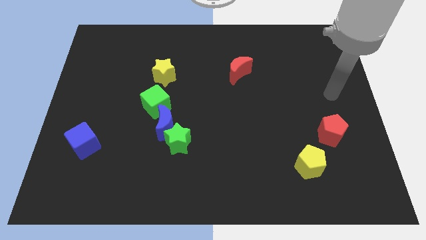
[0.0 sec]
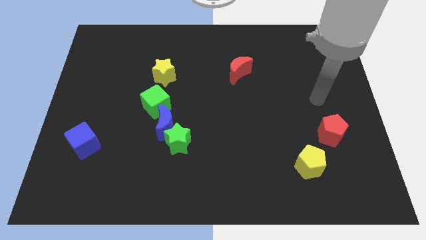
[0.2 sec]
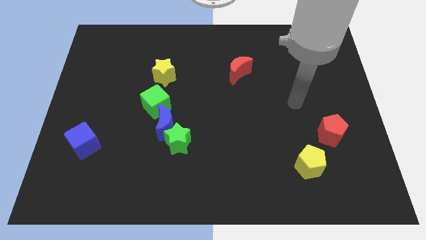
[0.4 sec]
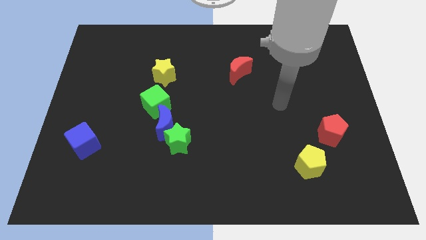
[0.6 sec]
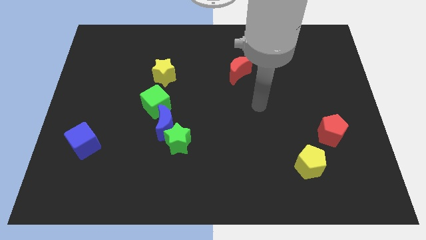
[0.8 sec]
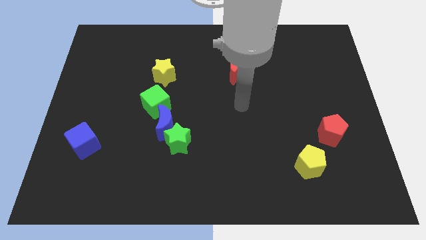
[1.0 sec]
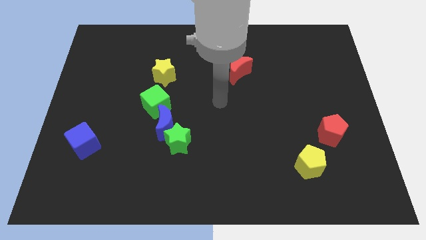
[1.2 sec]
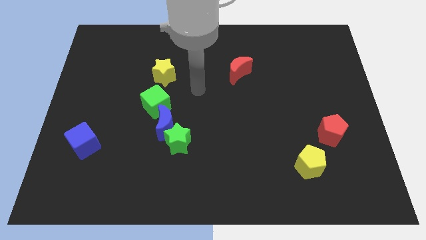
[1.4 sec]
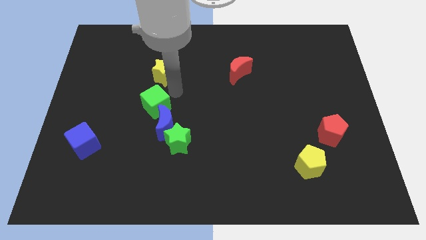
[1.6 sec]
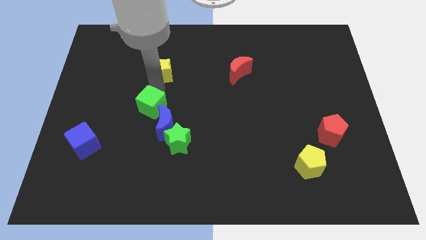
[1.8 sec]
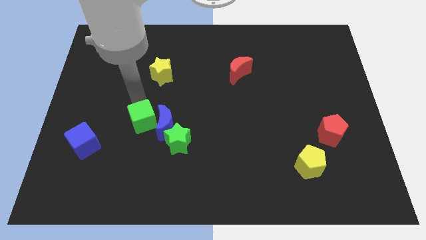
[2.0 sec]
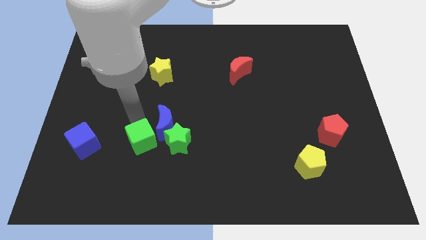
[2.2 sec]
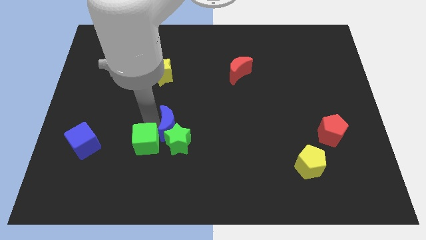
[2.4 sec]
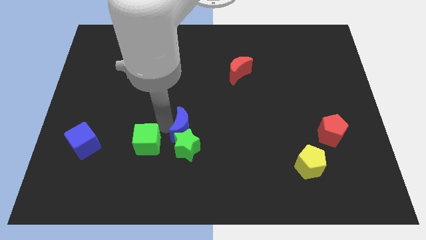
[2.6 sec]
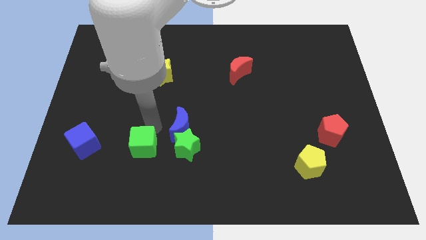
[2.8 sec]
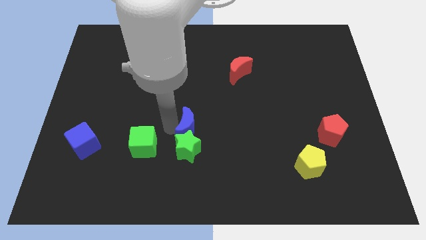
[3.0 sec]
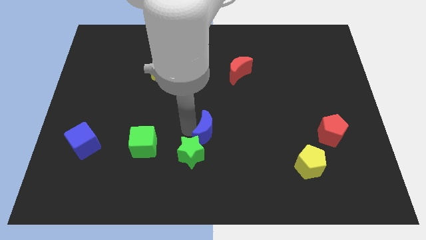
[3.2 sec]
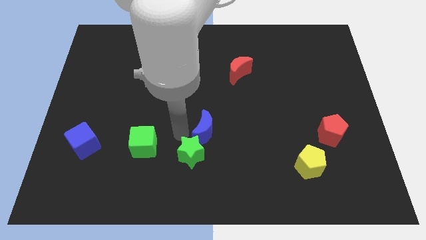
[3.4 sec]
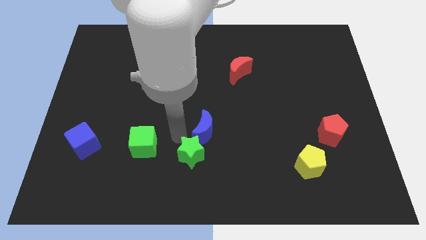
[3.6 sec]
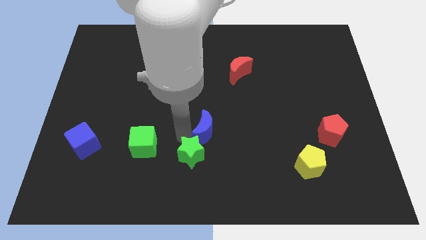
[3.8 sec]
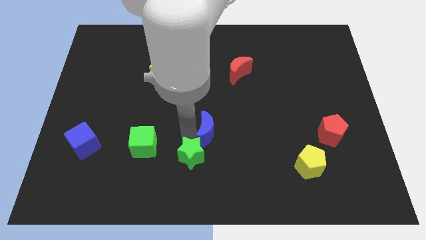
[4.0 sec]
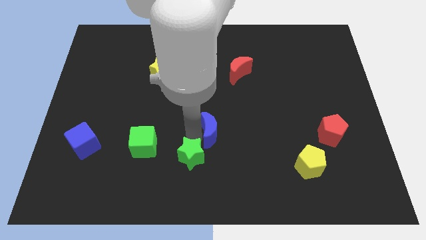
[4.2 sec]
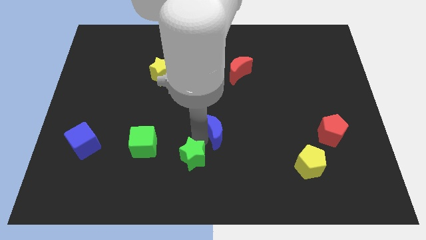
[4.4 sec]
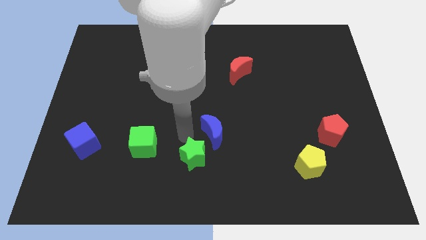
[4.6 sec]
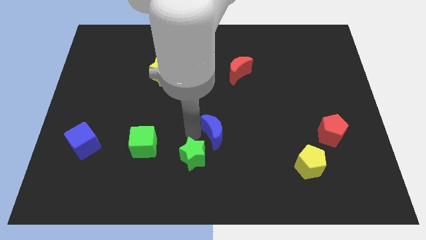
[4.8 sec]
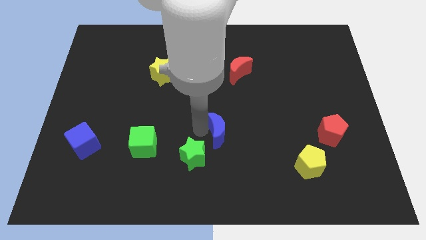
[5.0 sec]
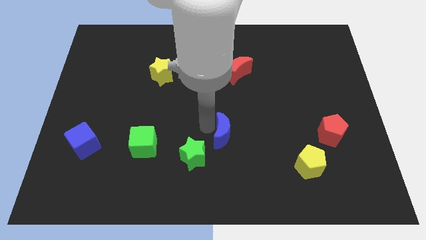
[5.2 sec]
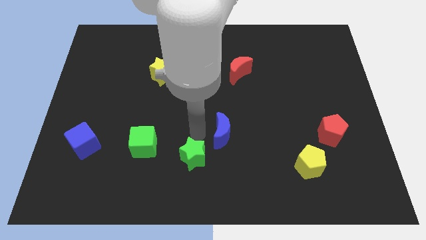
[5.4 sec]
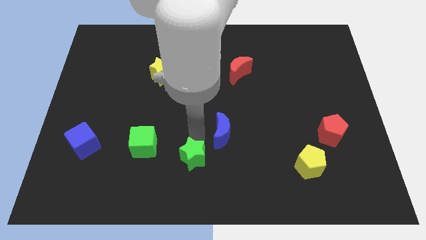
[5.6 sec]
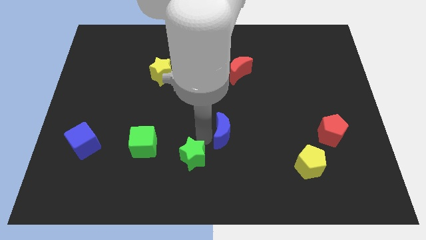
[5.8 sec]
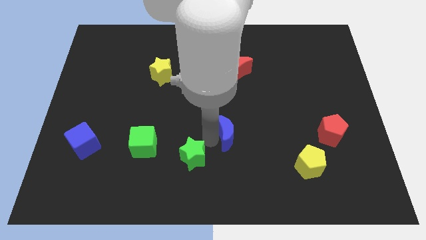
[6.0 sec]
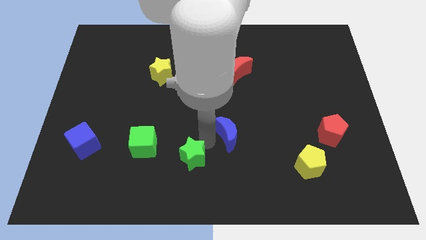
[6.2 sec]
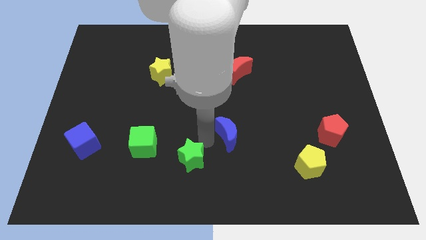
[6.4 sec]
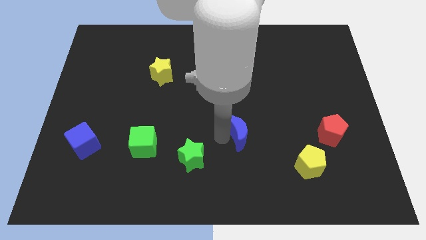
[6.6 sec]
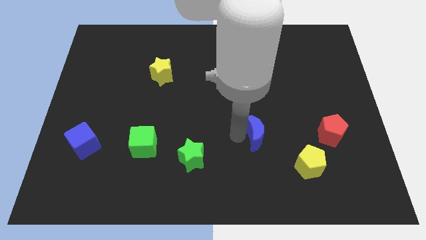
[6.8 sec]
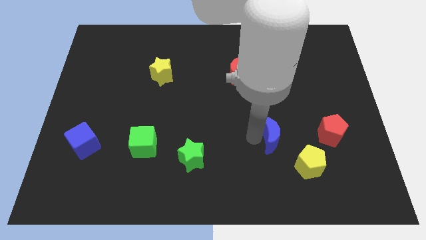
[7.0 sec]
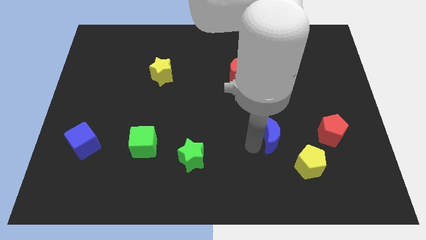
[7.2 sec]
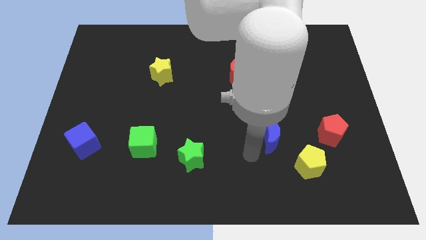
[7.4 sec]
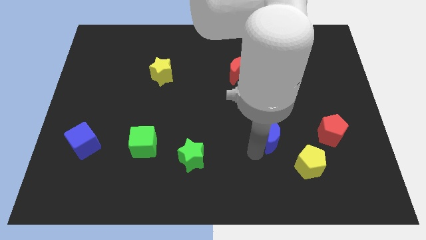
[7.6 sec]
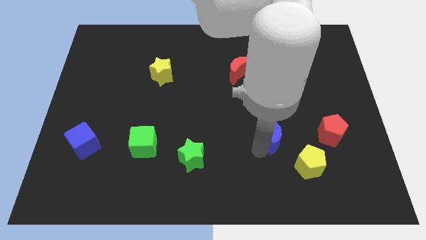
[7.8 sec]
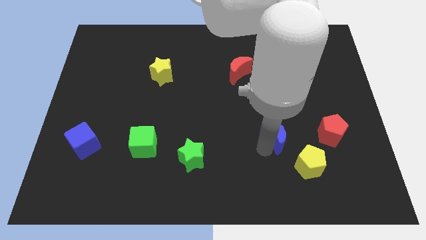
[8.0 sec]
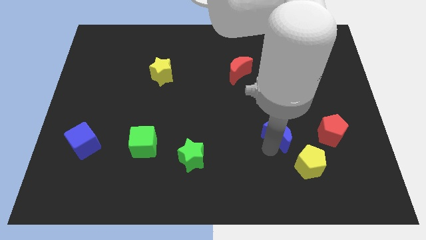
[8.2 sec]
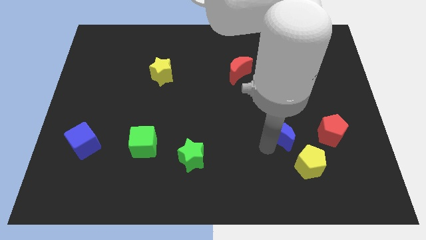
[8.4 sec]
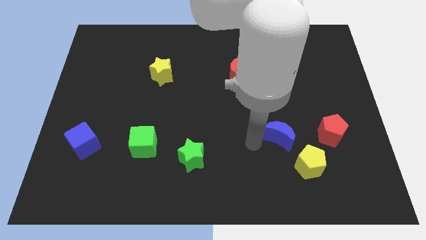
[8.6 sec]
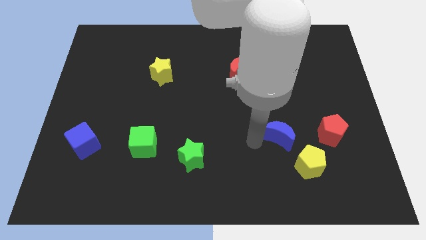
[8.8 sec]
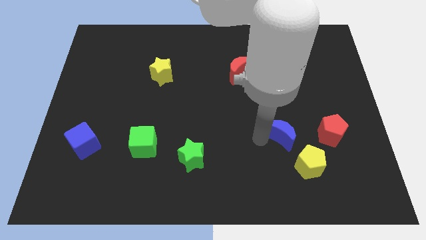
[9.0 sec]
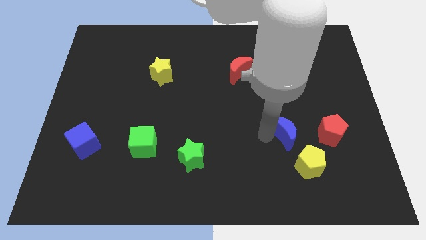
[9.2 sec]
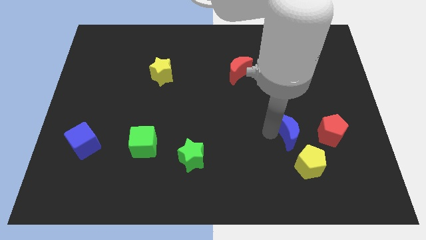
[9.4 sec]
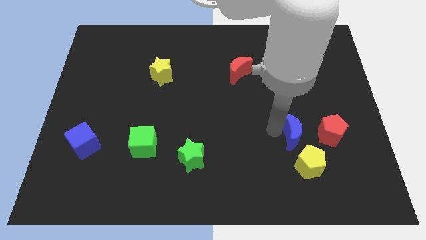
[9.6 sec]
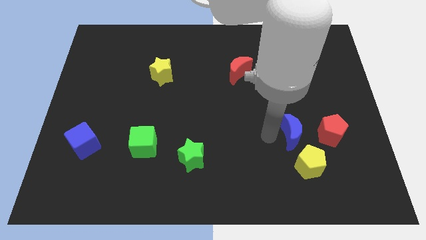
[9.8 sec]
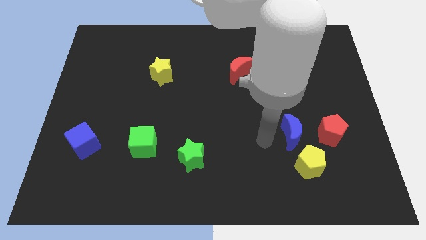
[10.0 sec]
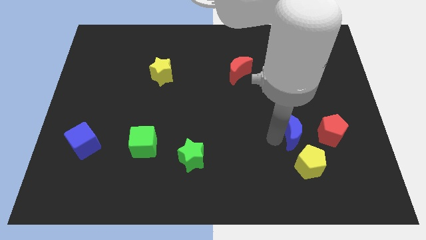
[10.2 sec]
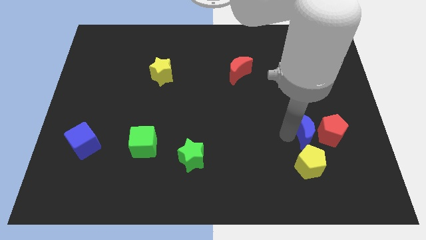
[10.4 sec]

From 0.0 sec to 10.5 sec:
move the blue moon towards the red pentagon

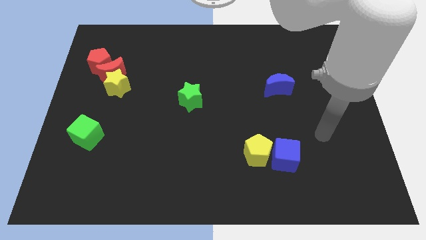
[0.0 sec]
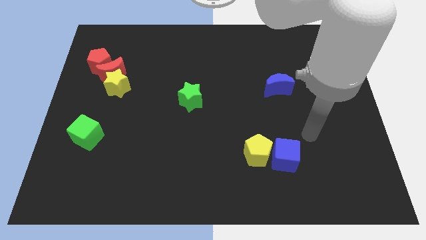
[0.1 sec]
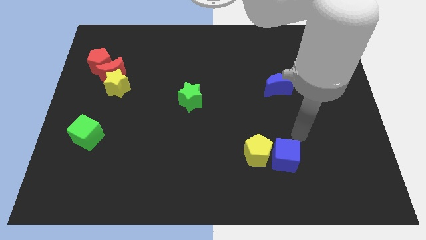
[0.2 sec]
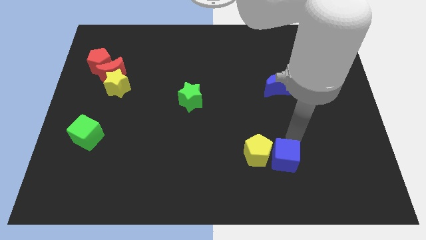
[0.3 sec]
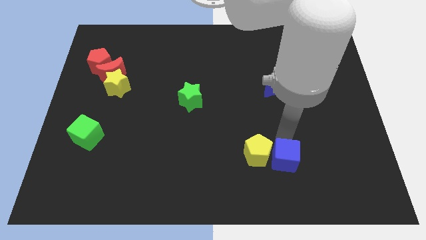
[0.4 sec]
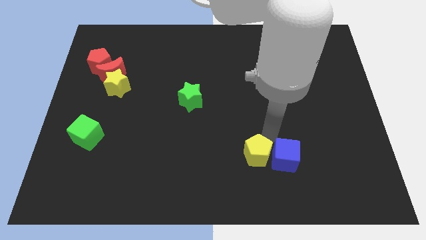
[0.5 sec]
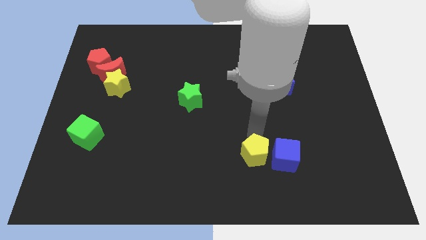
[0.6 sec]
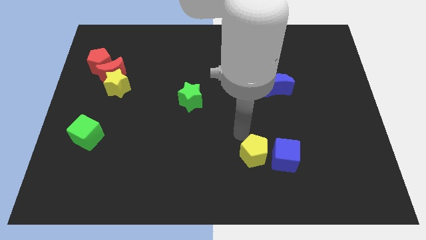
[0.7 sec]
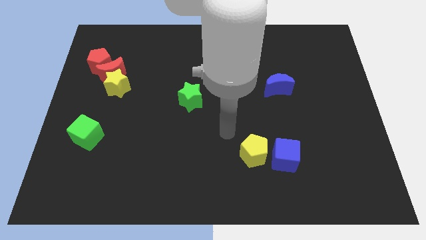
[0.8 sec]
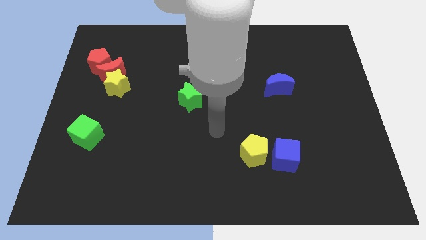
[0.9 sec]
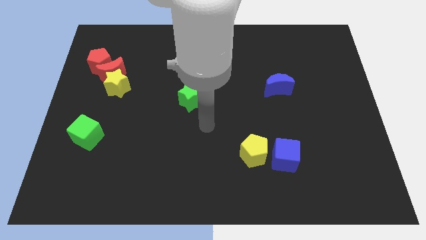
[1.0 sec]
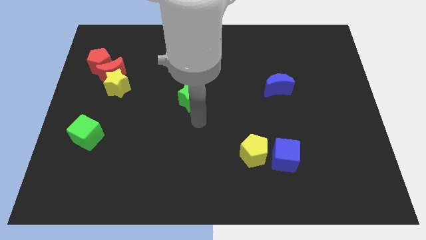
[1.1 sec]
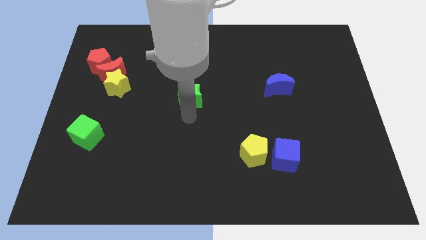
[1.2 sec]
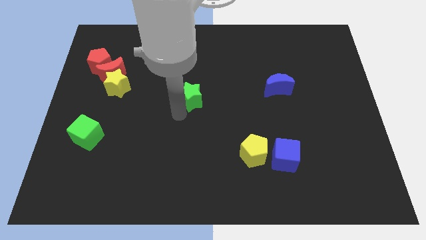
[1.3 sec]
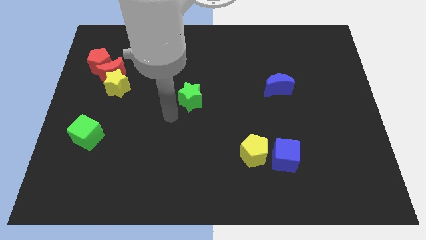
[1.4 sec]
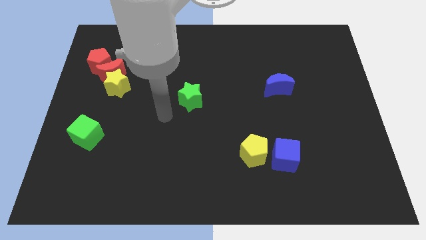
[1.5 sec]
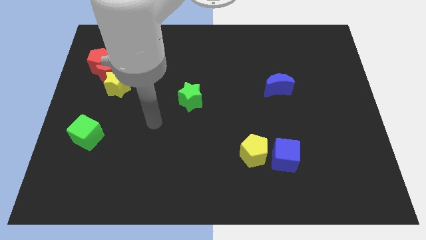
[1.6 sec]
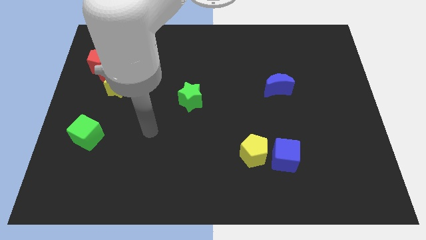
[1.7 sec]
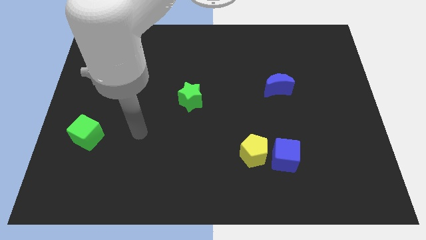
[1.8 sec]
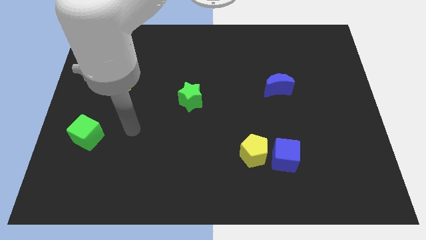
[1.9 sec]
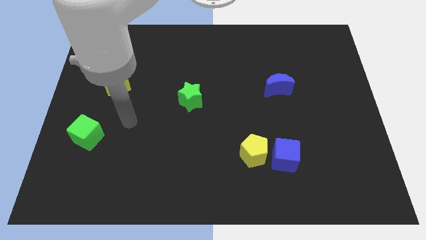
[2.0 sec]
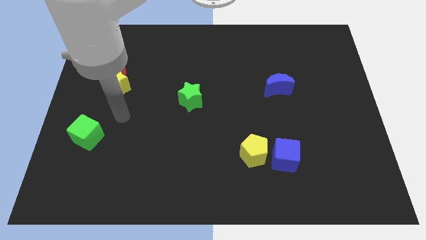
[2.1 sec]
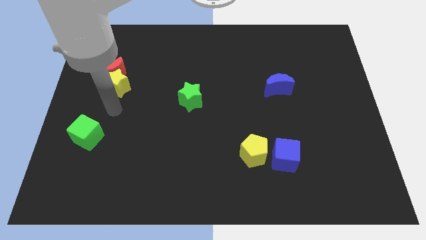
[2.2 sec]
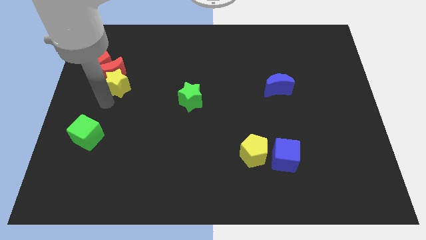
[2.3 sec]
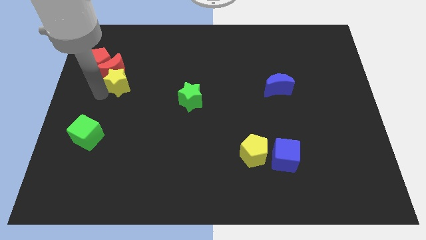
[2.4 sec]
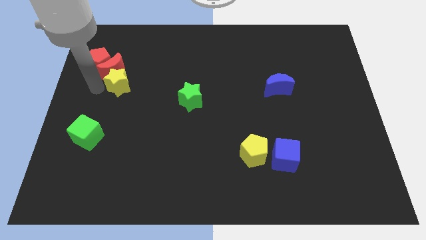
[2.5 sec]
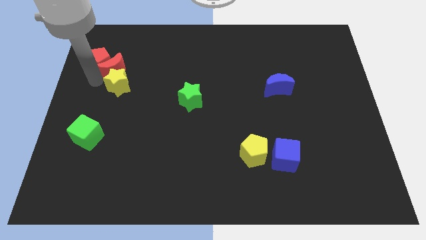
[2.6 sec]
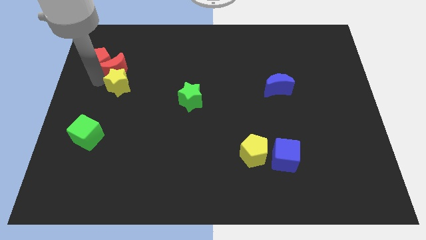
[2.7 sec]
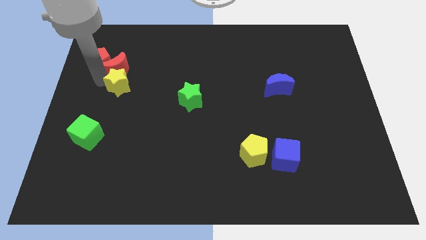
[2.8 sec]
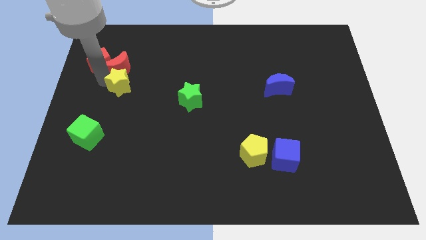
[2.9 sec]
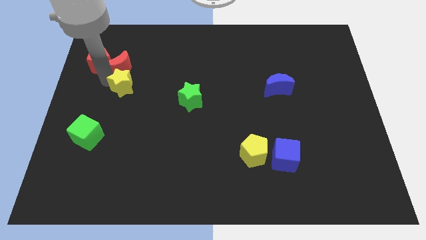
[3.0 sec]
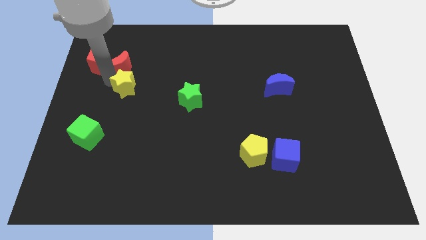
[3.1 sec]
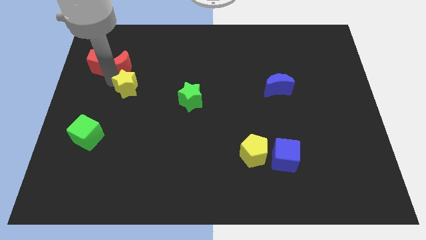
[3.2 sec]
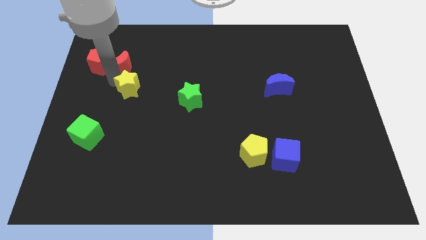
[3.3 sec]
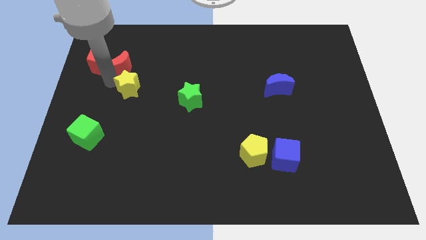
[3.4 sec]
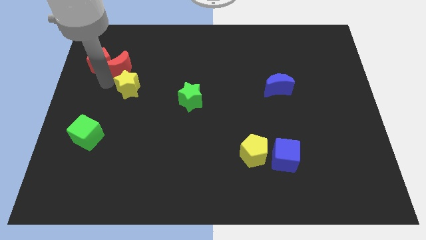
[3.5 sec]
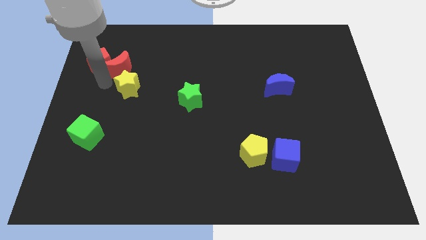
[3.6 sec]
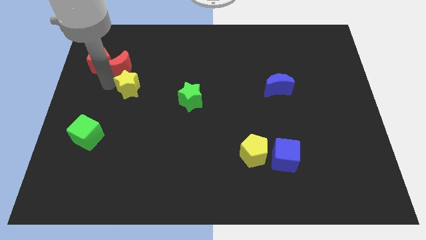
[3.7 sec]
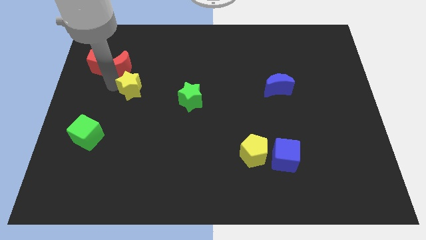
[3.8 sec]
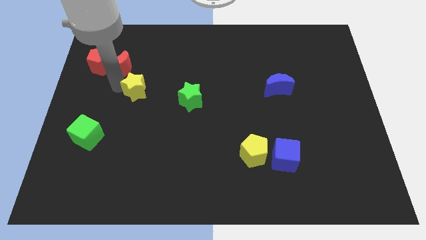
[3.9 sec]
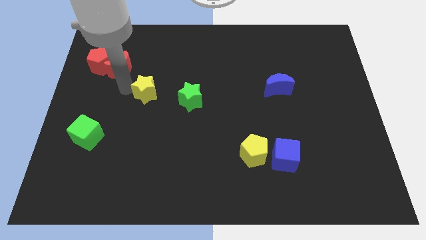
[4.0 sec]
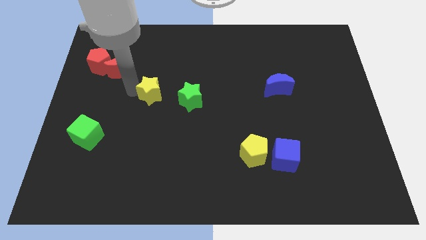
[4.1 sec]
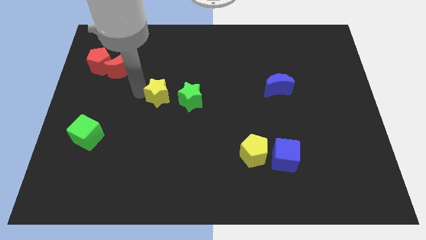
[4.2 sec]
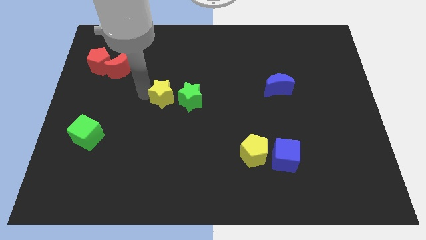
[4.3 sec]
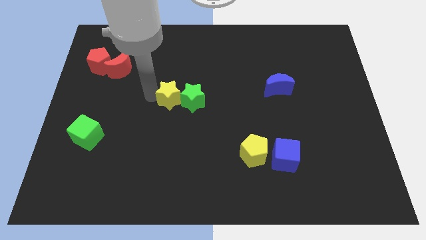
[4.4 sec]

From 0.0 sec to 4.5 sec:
put the yellow star to the green star
